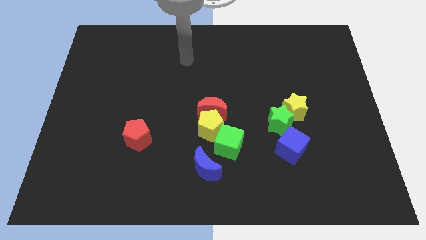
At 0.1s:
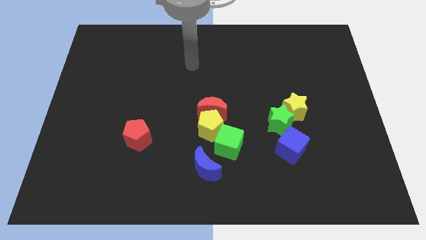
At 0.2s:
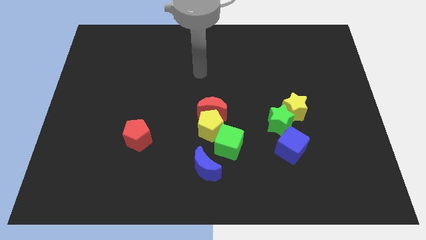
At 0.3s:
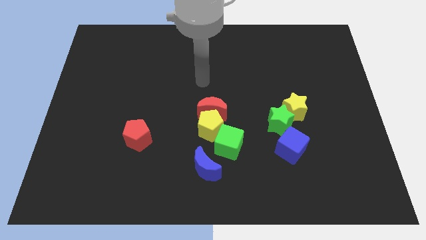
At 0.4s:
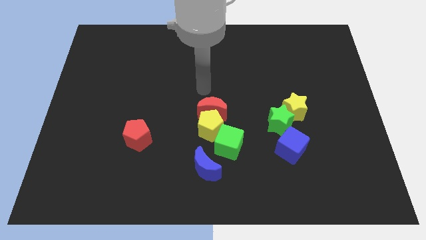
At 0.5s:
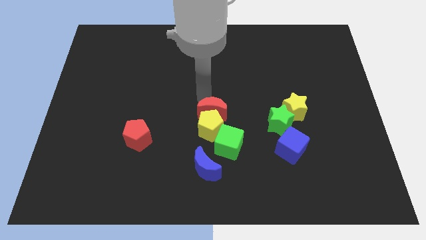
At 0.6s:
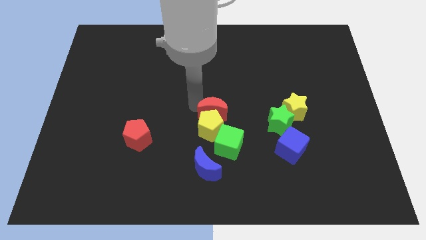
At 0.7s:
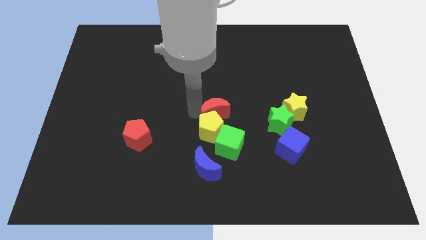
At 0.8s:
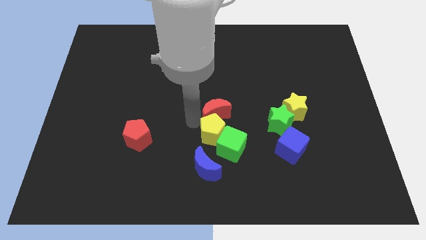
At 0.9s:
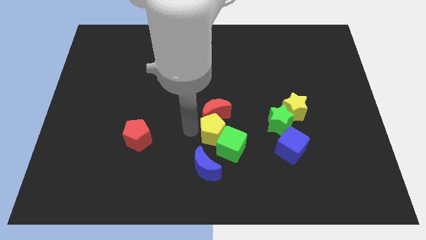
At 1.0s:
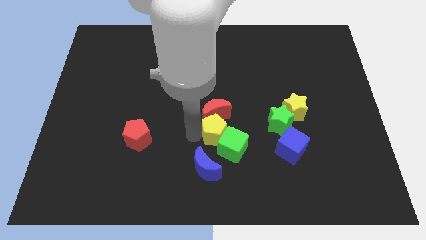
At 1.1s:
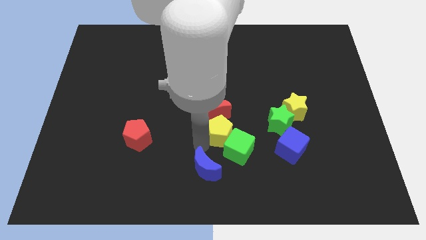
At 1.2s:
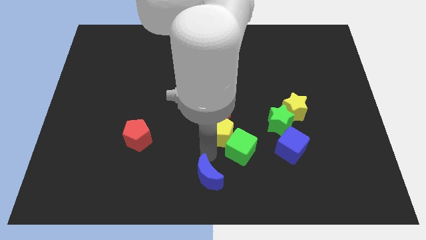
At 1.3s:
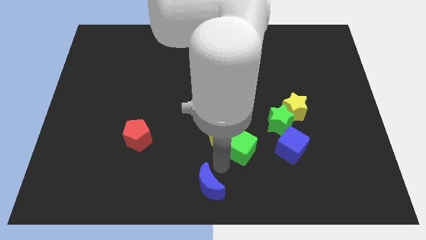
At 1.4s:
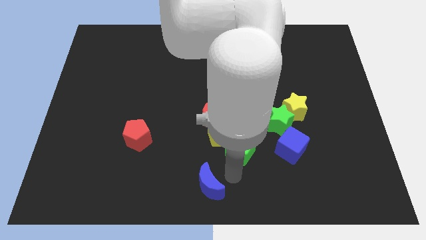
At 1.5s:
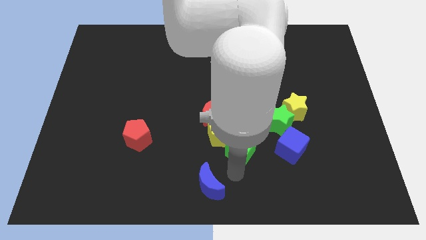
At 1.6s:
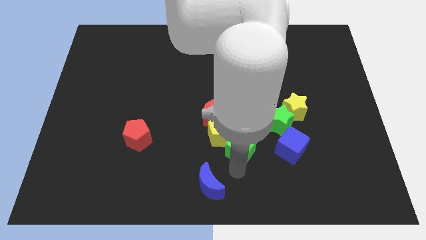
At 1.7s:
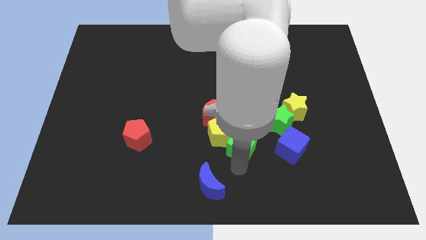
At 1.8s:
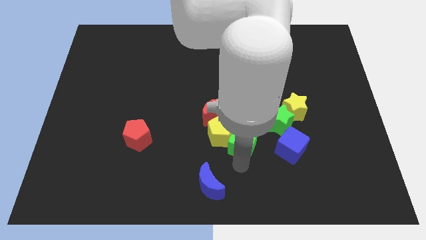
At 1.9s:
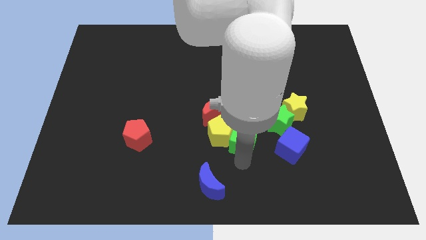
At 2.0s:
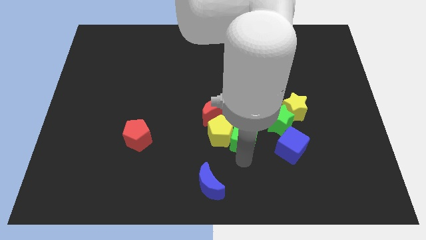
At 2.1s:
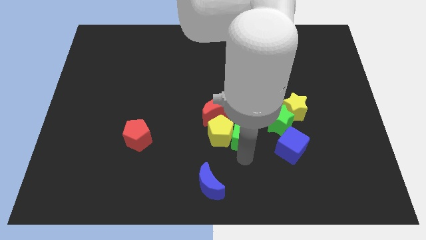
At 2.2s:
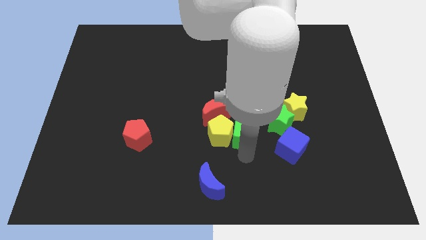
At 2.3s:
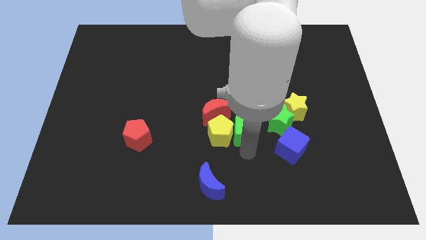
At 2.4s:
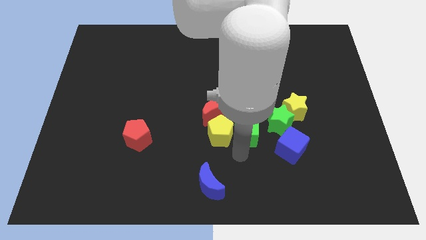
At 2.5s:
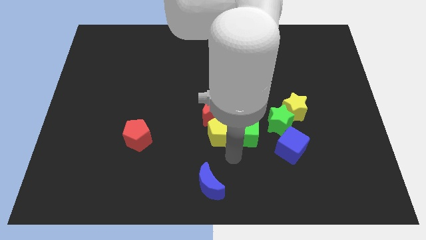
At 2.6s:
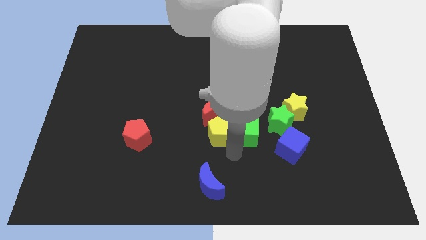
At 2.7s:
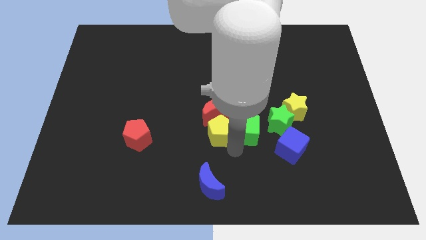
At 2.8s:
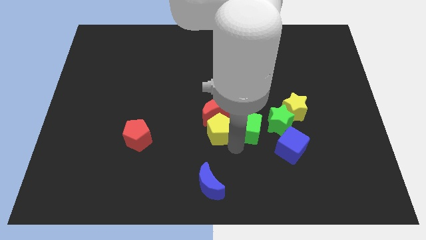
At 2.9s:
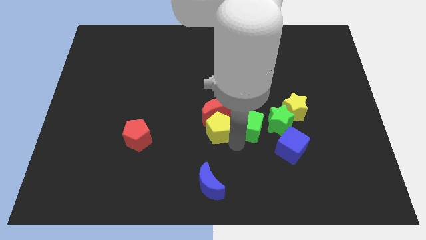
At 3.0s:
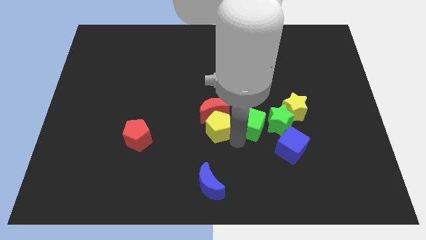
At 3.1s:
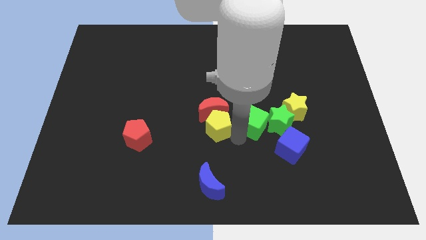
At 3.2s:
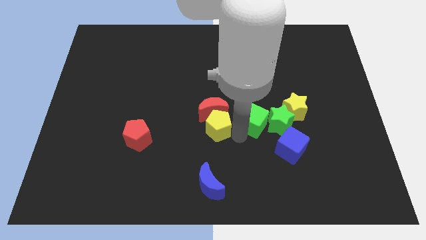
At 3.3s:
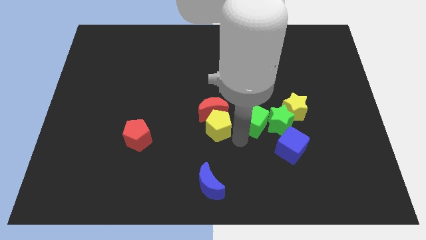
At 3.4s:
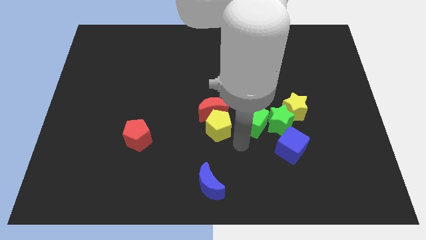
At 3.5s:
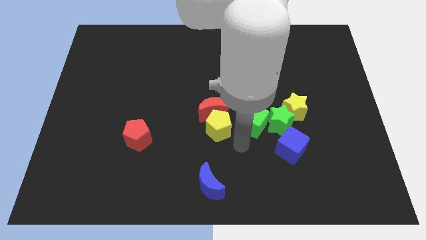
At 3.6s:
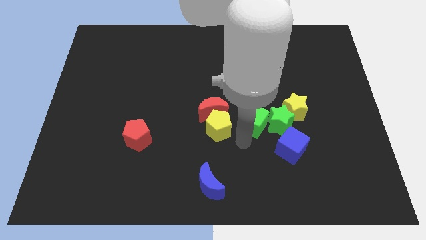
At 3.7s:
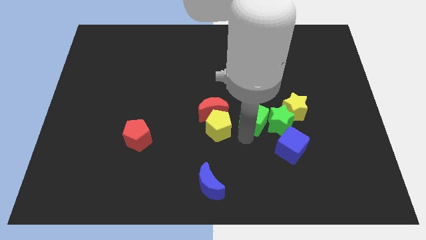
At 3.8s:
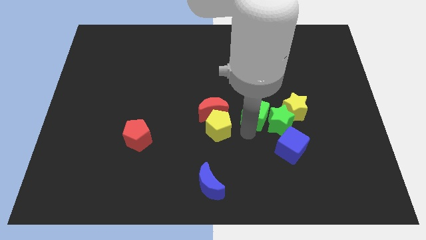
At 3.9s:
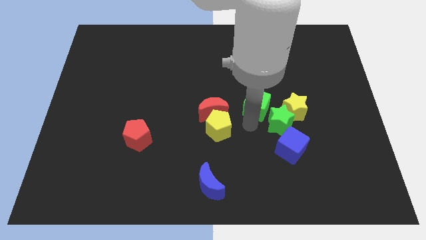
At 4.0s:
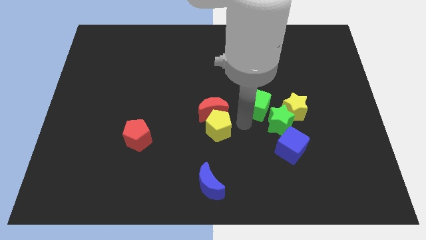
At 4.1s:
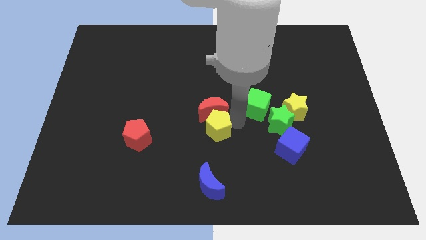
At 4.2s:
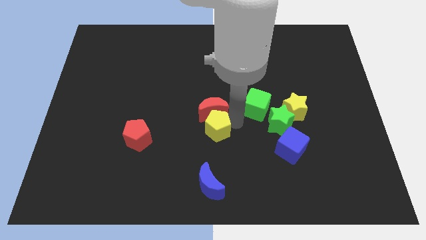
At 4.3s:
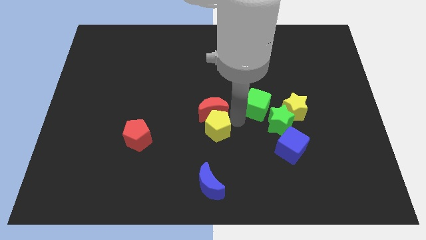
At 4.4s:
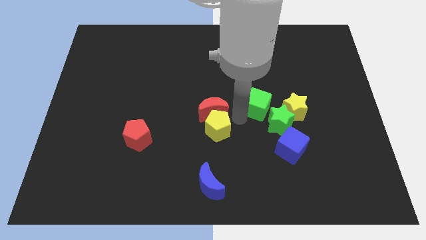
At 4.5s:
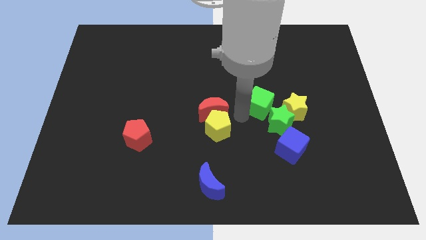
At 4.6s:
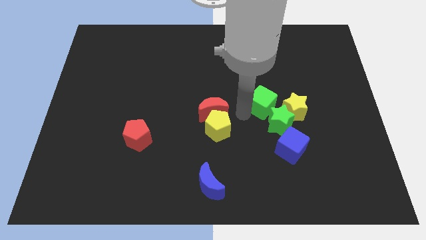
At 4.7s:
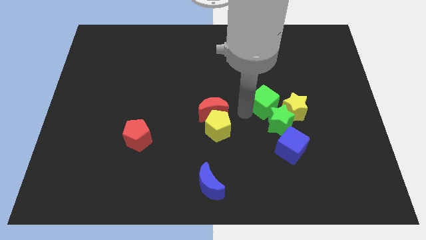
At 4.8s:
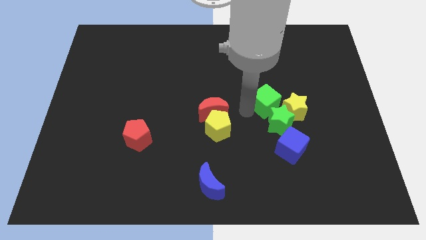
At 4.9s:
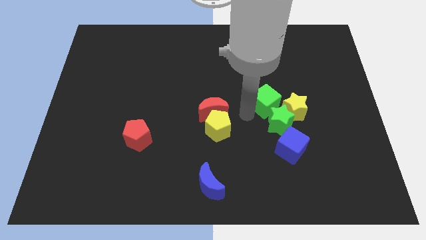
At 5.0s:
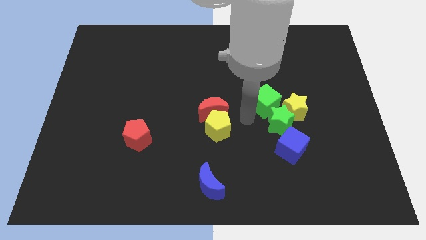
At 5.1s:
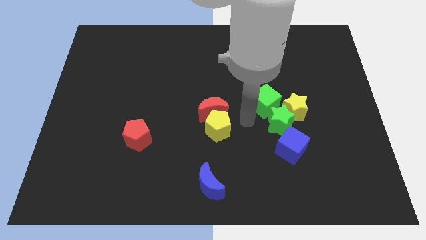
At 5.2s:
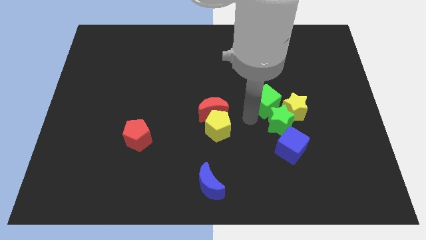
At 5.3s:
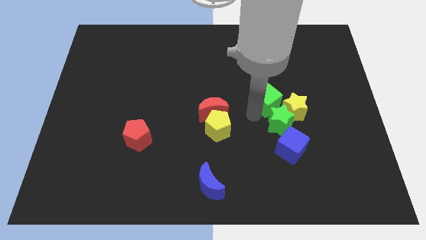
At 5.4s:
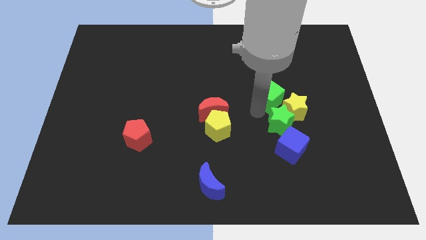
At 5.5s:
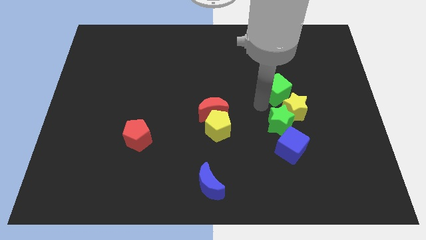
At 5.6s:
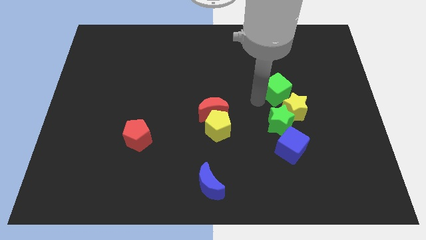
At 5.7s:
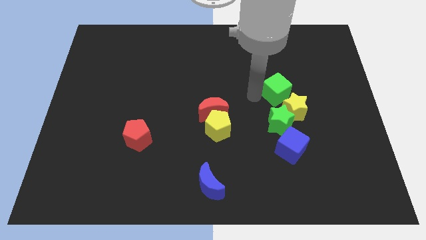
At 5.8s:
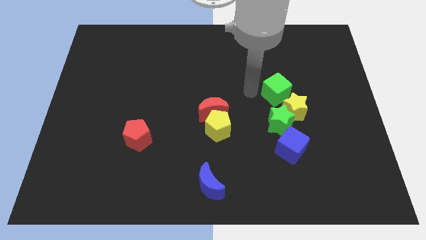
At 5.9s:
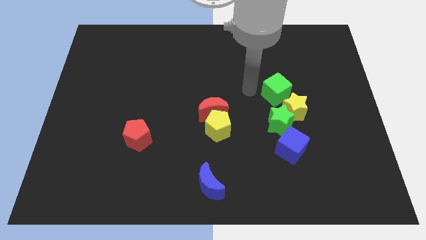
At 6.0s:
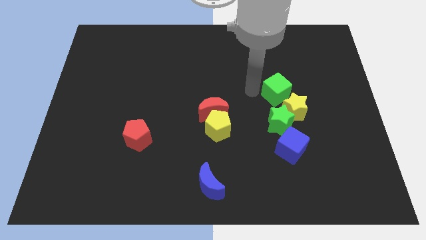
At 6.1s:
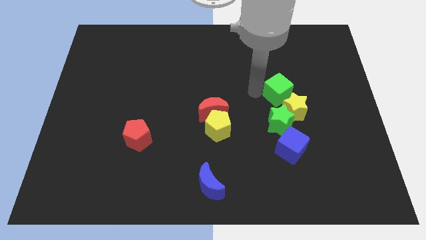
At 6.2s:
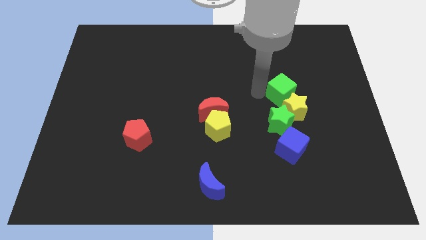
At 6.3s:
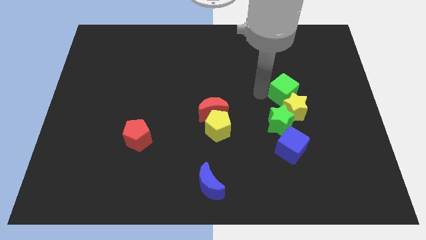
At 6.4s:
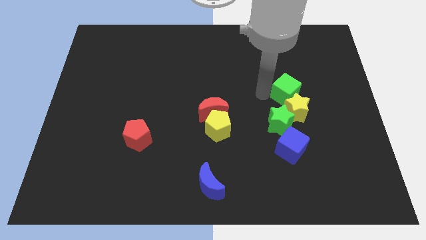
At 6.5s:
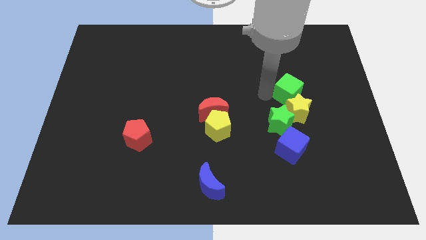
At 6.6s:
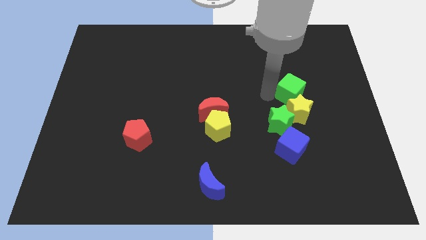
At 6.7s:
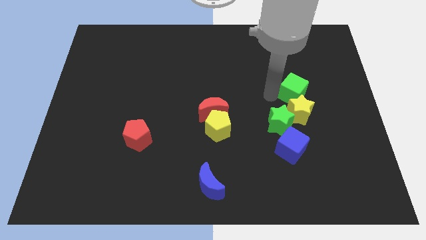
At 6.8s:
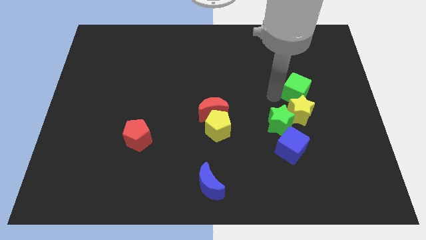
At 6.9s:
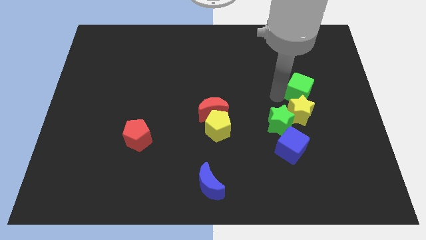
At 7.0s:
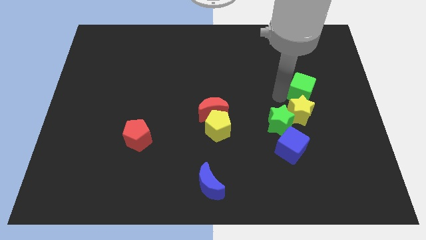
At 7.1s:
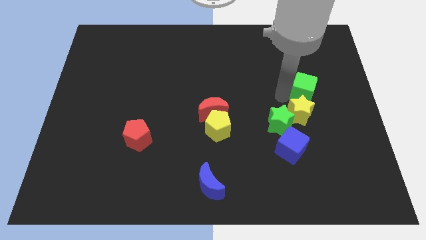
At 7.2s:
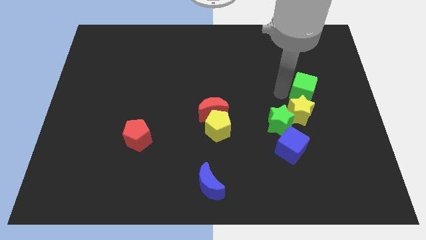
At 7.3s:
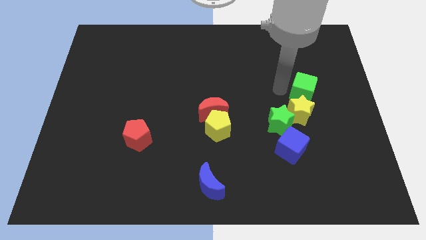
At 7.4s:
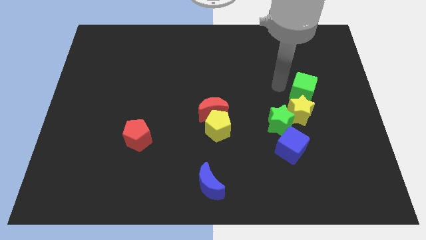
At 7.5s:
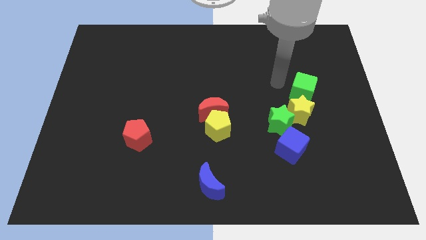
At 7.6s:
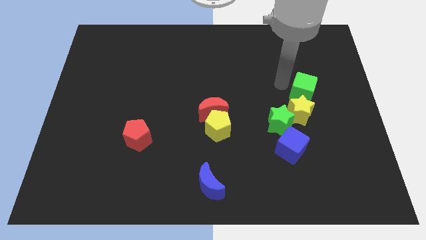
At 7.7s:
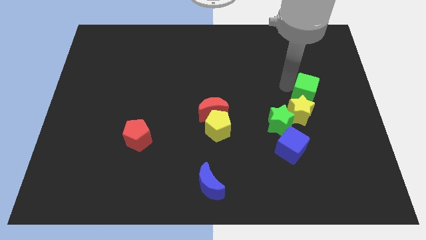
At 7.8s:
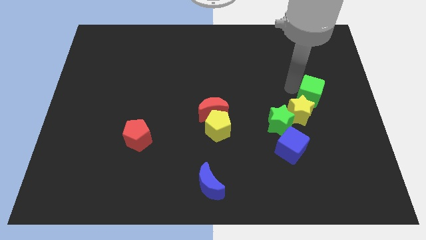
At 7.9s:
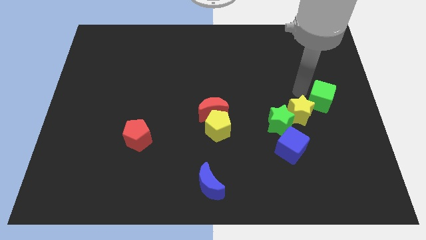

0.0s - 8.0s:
slide the green cube to the center right
